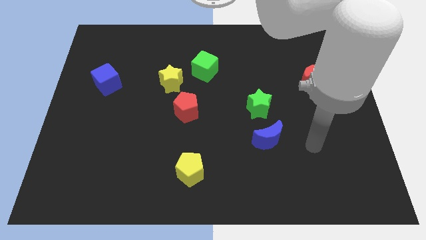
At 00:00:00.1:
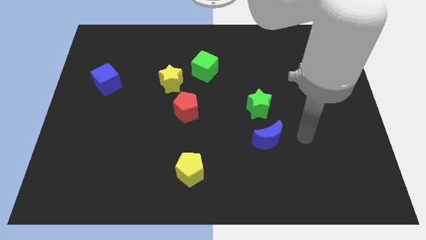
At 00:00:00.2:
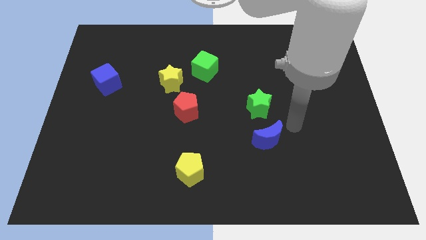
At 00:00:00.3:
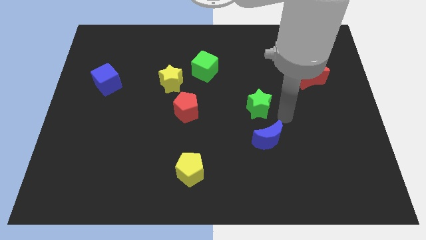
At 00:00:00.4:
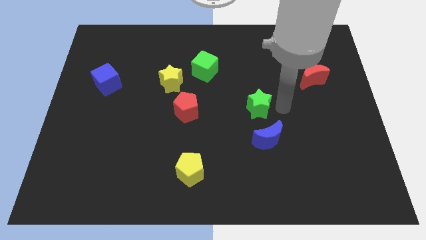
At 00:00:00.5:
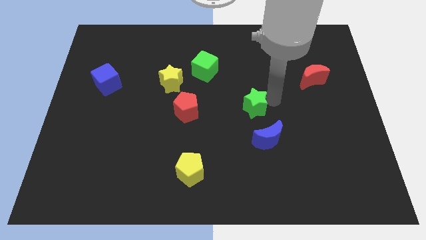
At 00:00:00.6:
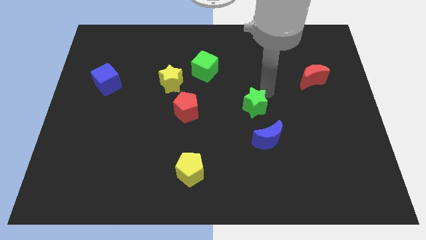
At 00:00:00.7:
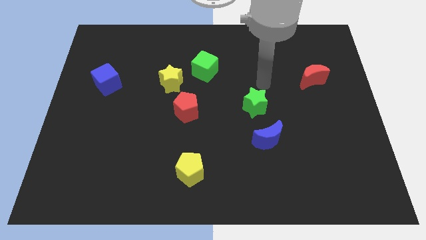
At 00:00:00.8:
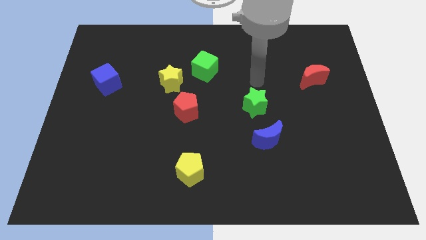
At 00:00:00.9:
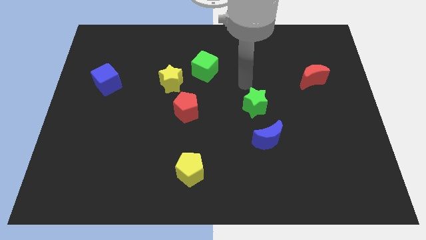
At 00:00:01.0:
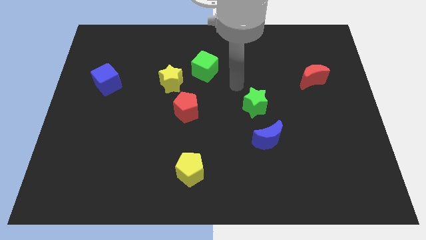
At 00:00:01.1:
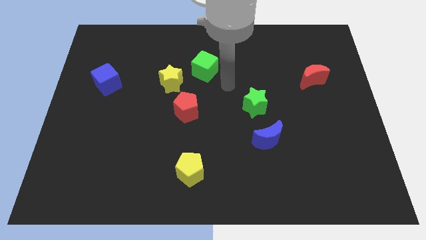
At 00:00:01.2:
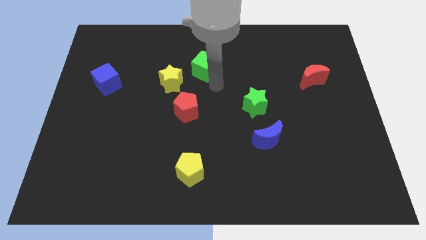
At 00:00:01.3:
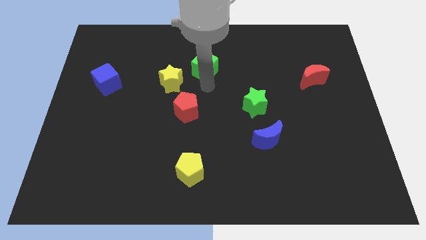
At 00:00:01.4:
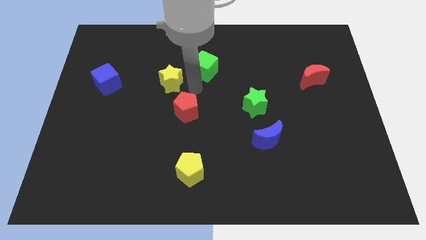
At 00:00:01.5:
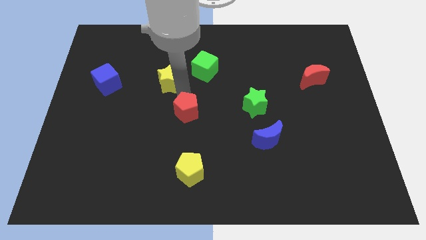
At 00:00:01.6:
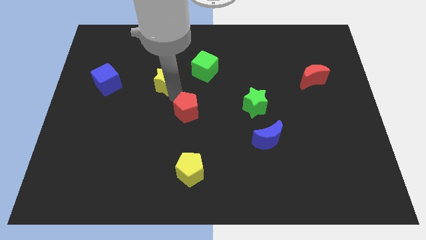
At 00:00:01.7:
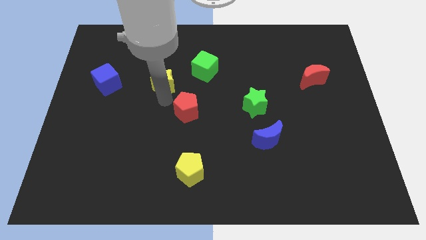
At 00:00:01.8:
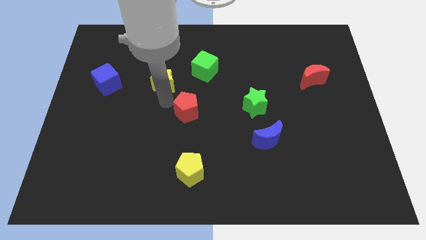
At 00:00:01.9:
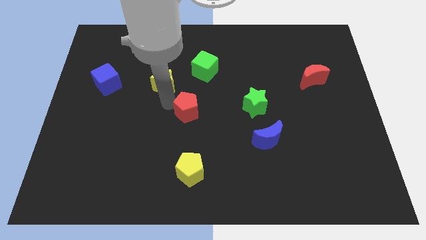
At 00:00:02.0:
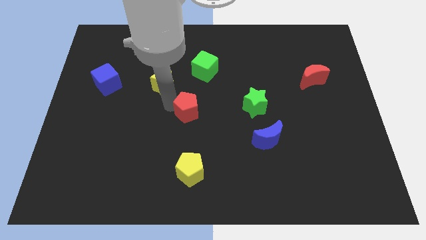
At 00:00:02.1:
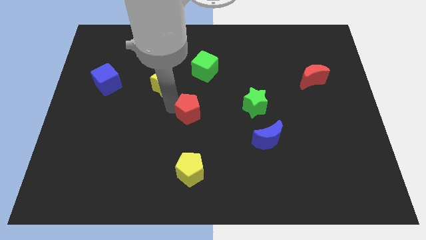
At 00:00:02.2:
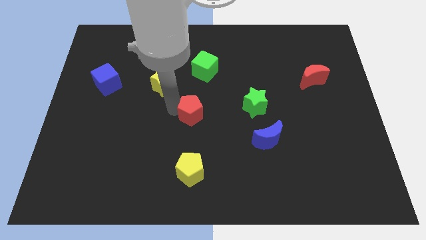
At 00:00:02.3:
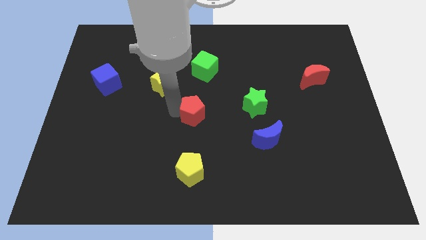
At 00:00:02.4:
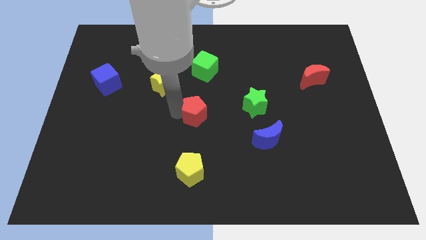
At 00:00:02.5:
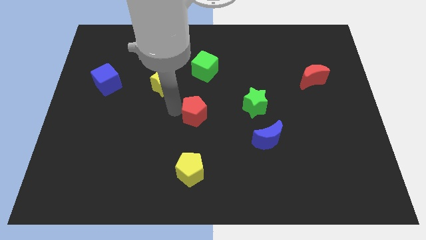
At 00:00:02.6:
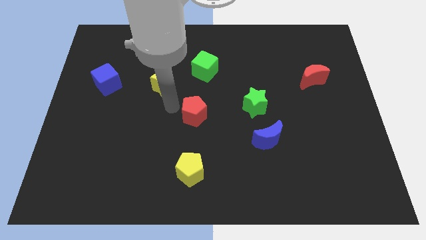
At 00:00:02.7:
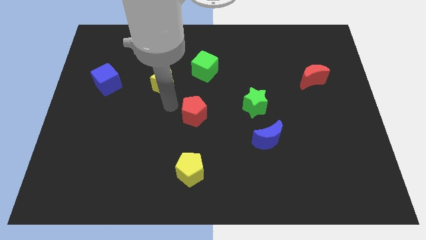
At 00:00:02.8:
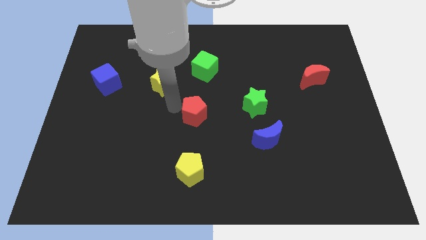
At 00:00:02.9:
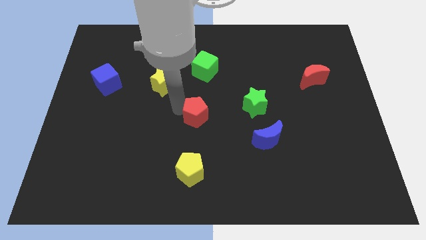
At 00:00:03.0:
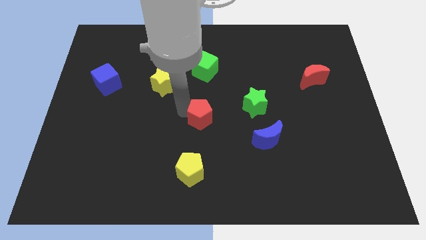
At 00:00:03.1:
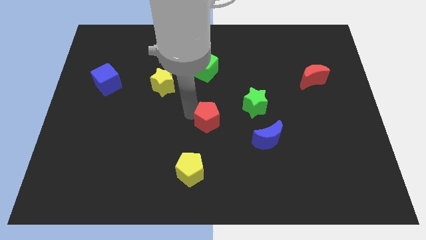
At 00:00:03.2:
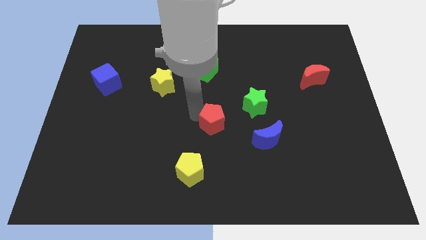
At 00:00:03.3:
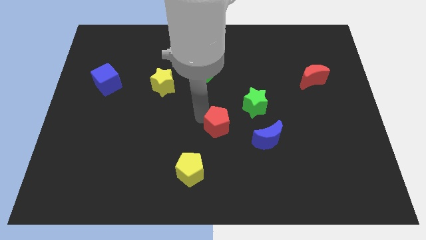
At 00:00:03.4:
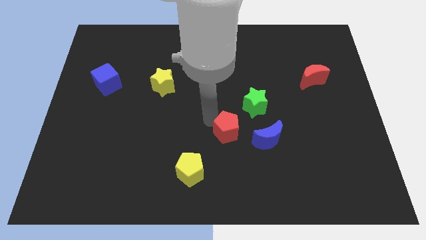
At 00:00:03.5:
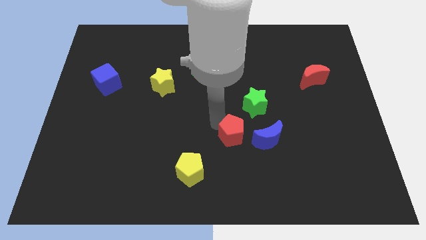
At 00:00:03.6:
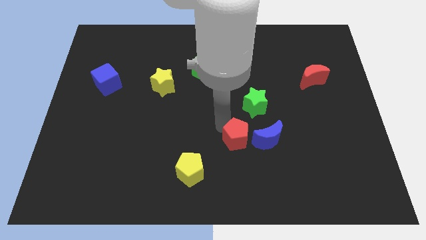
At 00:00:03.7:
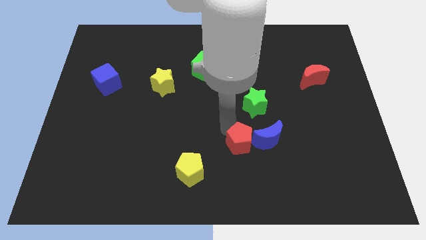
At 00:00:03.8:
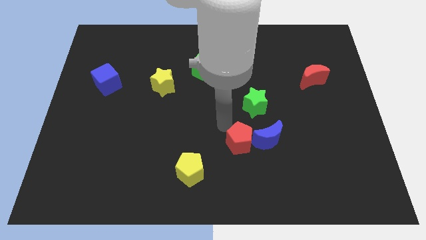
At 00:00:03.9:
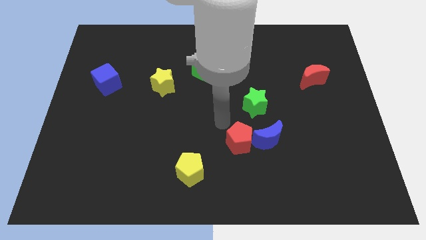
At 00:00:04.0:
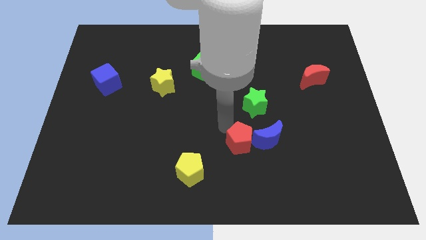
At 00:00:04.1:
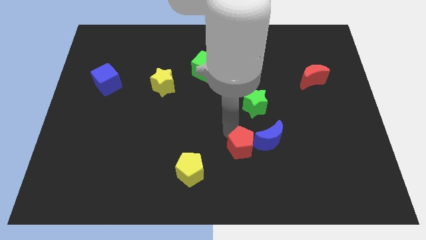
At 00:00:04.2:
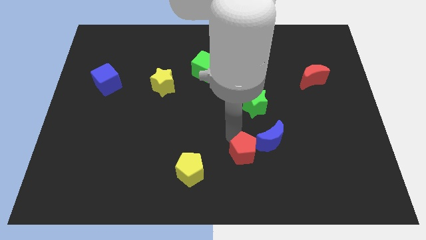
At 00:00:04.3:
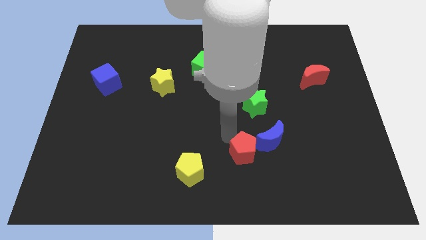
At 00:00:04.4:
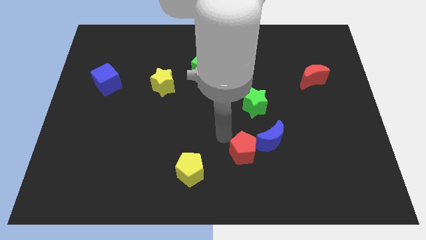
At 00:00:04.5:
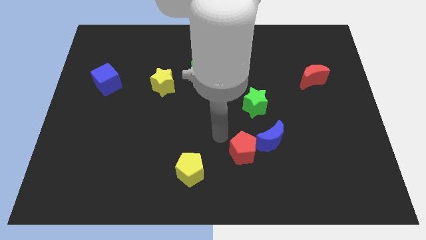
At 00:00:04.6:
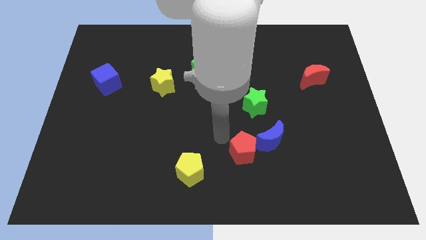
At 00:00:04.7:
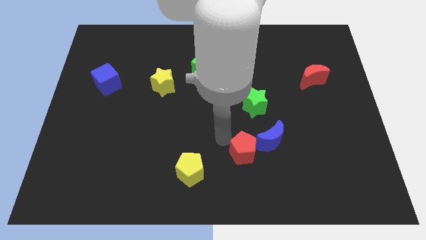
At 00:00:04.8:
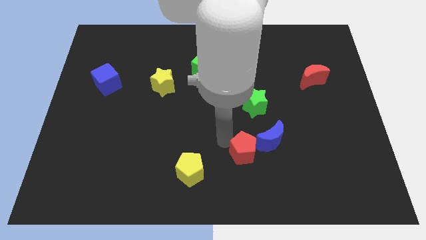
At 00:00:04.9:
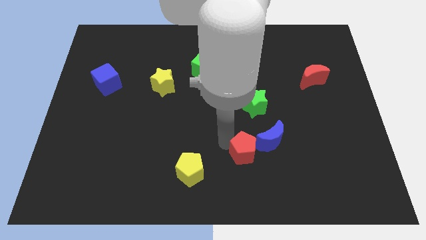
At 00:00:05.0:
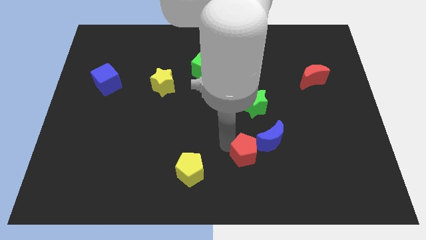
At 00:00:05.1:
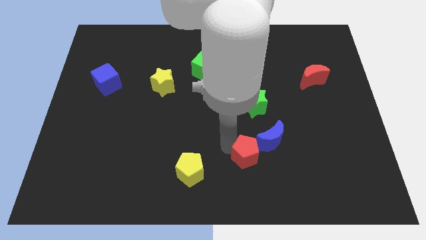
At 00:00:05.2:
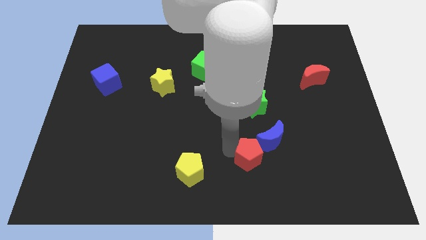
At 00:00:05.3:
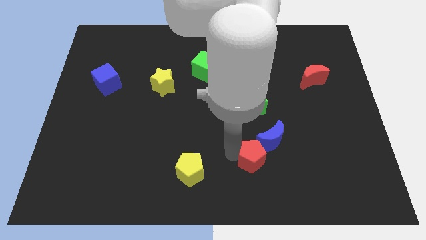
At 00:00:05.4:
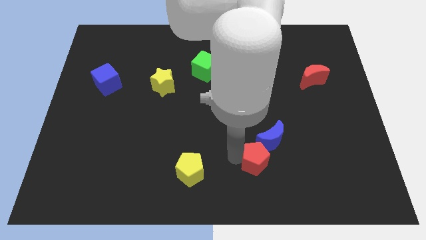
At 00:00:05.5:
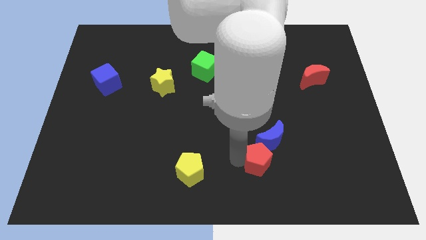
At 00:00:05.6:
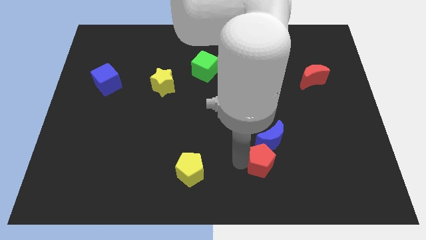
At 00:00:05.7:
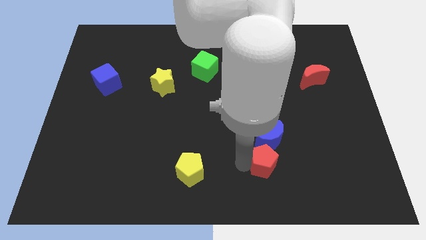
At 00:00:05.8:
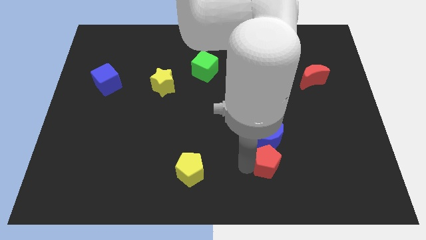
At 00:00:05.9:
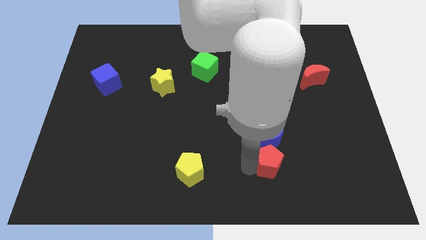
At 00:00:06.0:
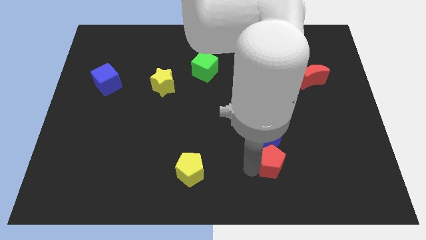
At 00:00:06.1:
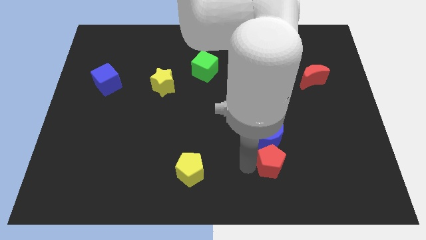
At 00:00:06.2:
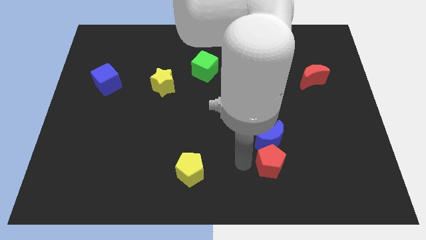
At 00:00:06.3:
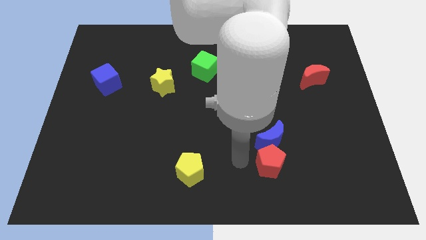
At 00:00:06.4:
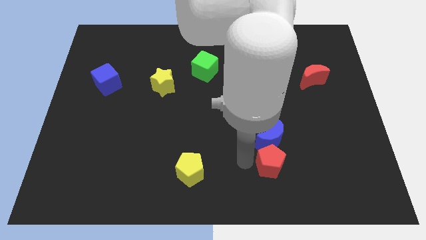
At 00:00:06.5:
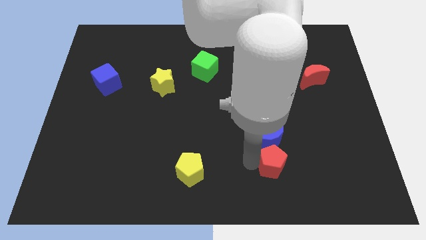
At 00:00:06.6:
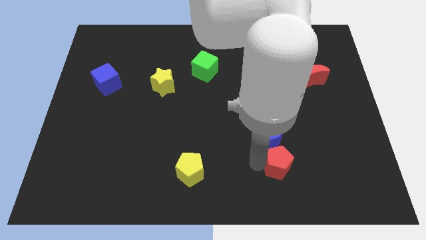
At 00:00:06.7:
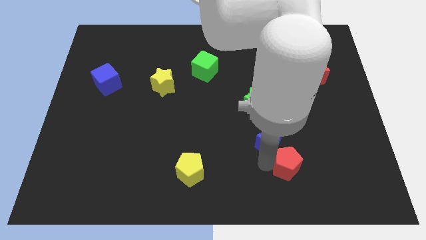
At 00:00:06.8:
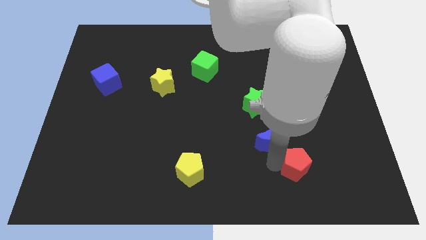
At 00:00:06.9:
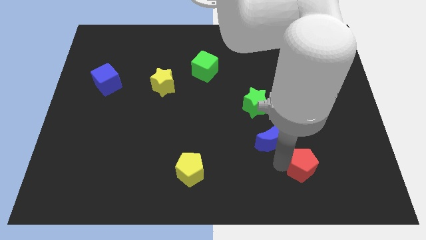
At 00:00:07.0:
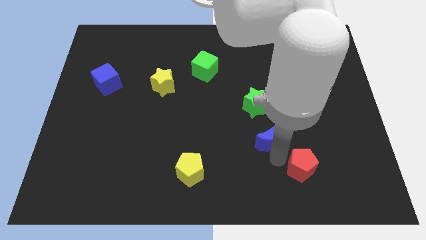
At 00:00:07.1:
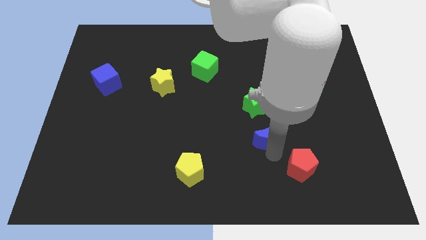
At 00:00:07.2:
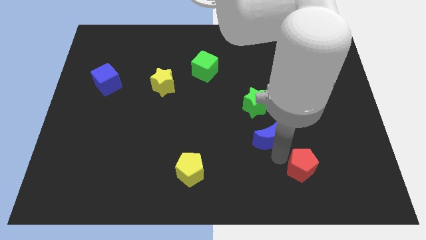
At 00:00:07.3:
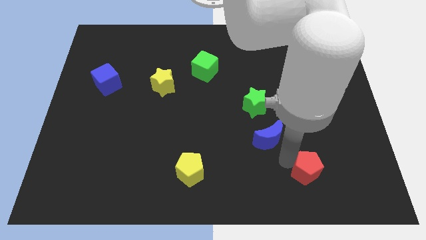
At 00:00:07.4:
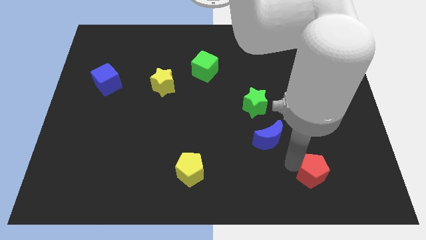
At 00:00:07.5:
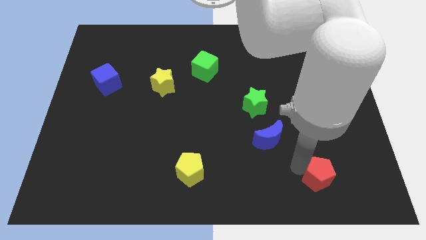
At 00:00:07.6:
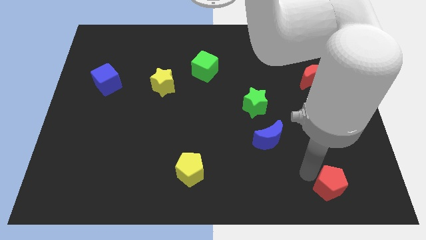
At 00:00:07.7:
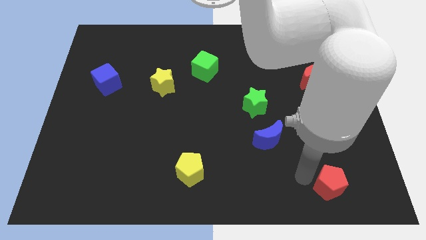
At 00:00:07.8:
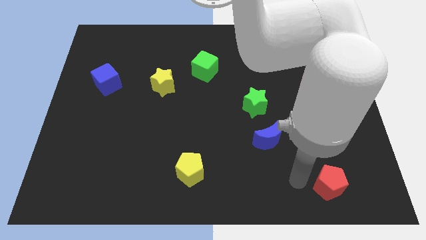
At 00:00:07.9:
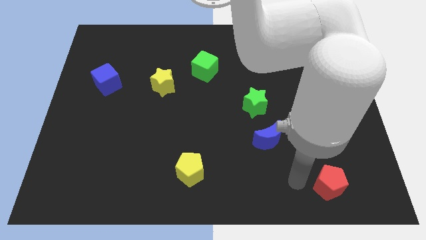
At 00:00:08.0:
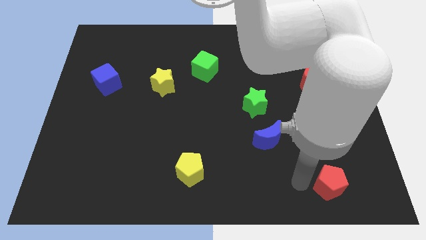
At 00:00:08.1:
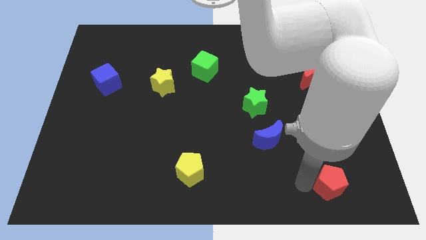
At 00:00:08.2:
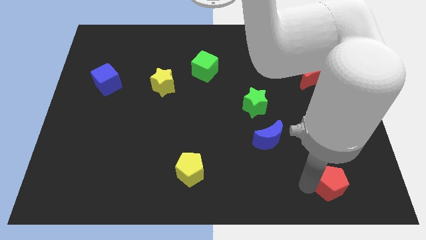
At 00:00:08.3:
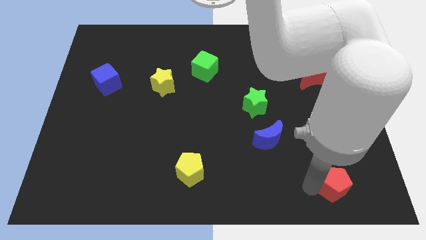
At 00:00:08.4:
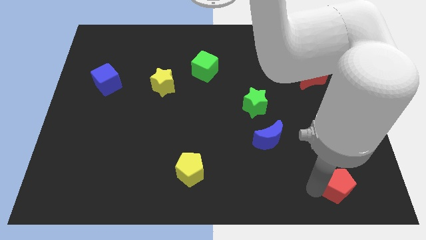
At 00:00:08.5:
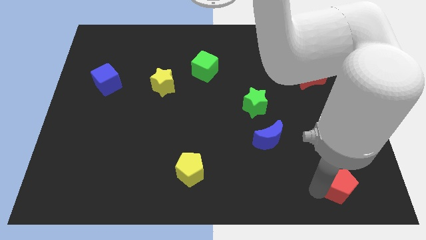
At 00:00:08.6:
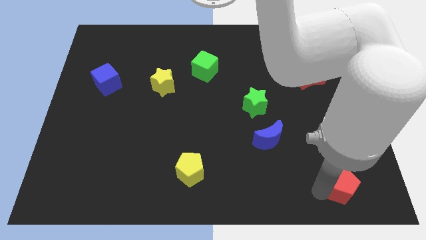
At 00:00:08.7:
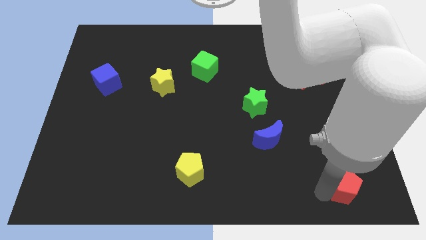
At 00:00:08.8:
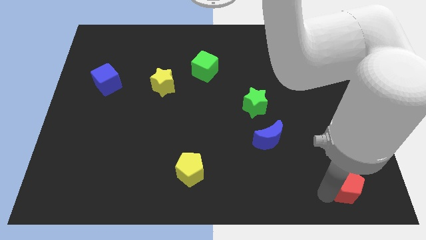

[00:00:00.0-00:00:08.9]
push the red pentagon to the bottom right of the board
